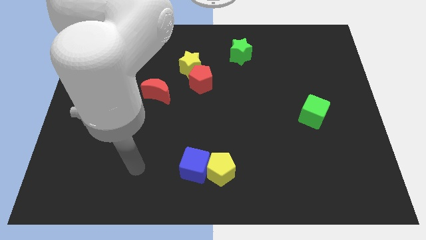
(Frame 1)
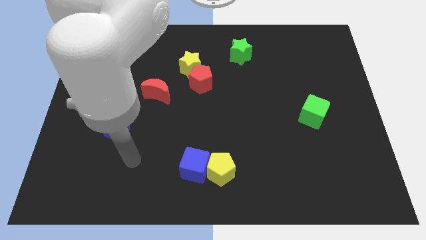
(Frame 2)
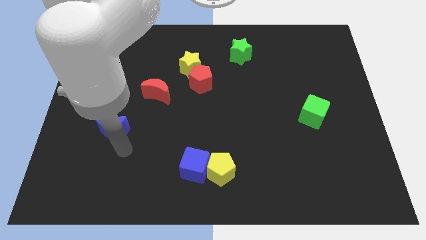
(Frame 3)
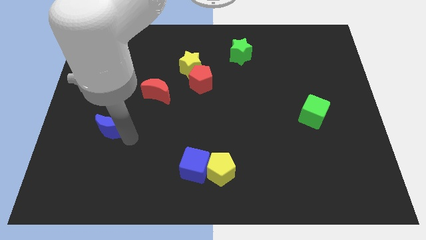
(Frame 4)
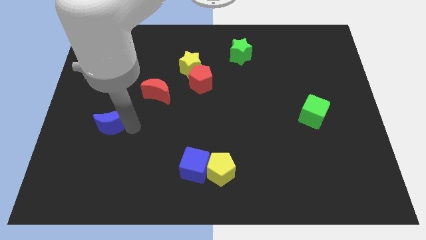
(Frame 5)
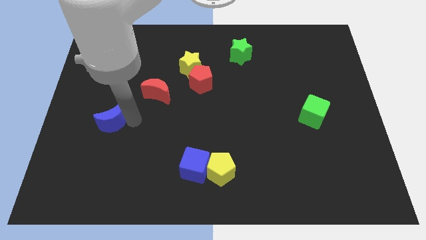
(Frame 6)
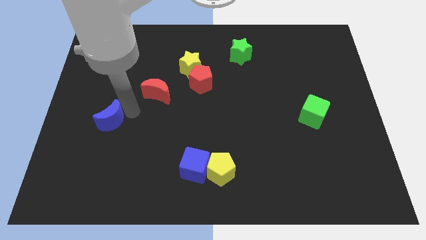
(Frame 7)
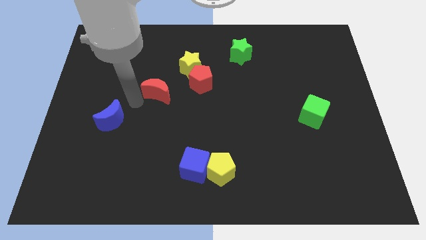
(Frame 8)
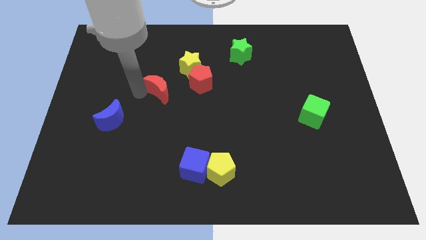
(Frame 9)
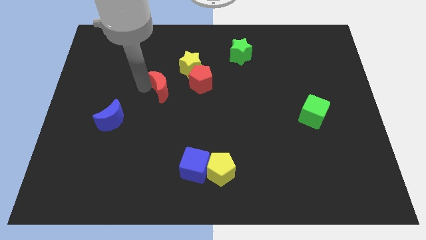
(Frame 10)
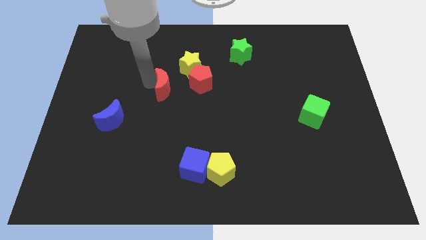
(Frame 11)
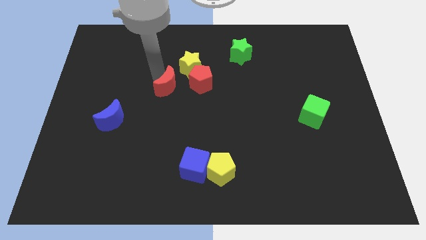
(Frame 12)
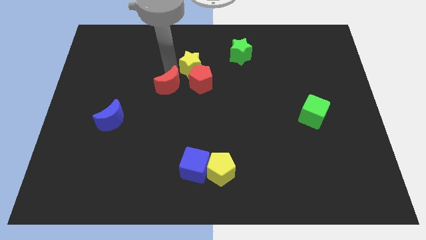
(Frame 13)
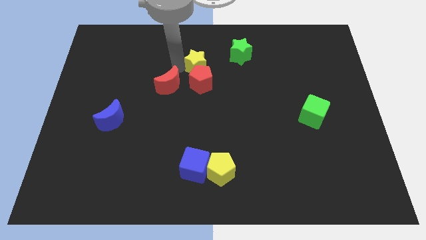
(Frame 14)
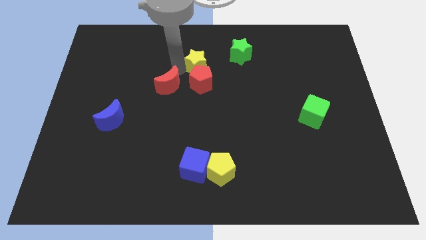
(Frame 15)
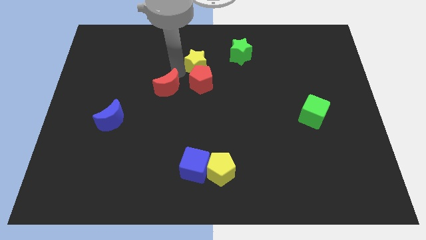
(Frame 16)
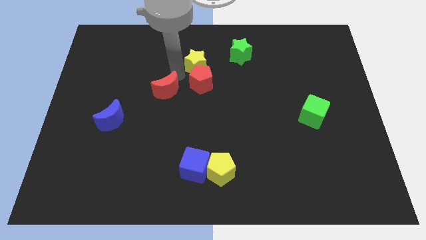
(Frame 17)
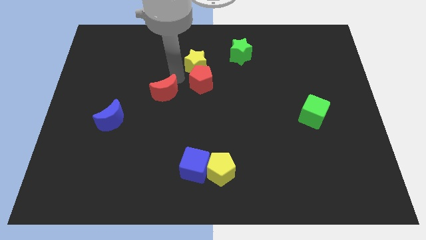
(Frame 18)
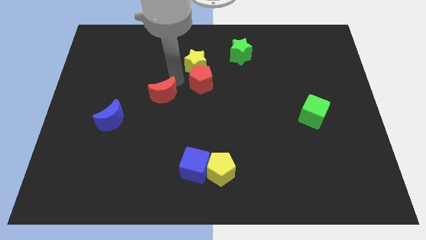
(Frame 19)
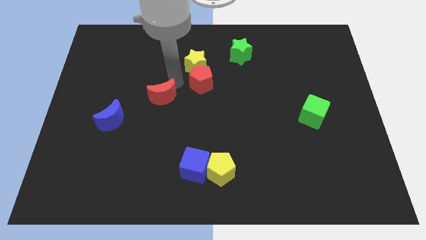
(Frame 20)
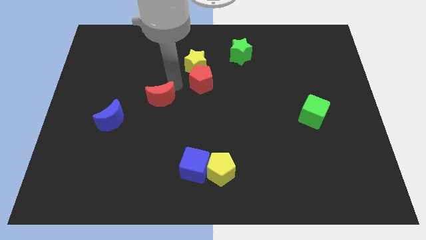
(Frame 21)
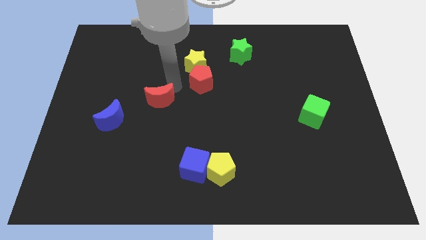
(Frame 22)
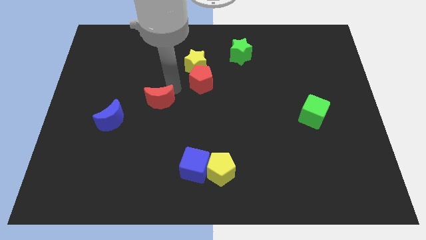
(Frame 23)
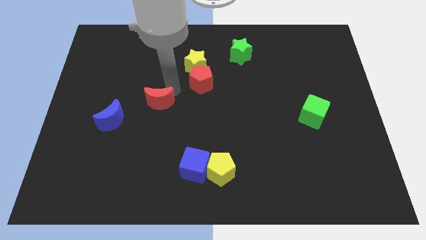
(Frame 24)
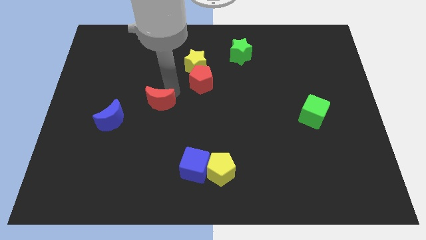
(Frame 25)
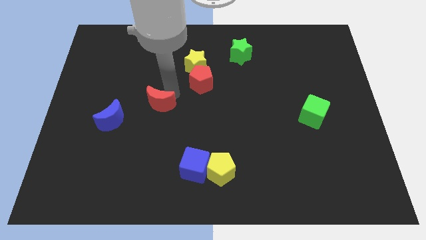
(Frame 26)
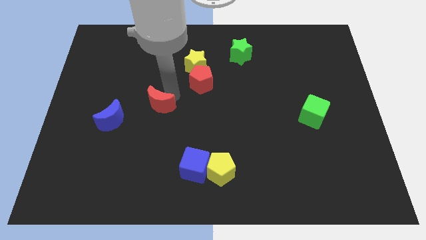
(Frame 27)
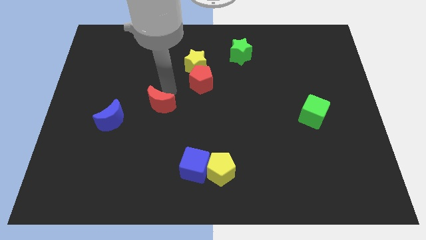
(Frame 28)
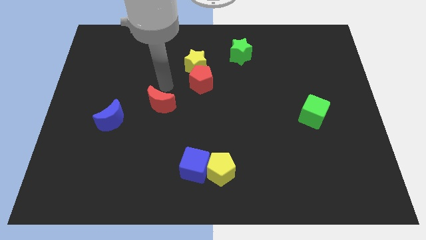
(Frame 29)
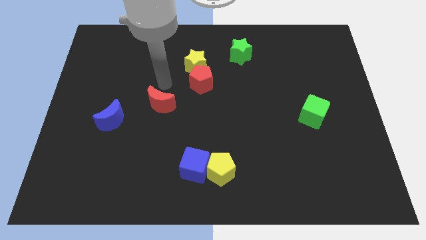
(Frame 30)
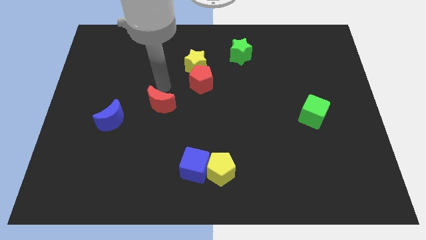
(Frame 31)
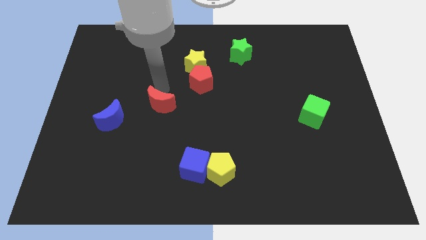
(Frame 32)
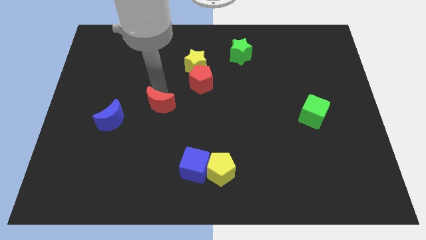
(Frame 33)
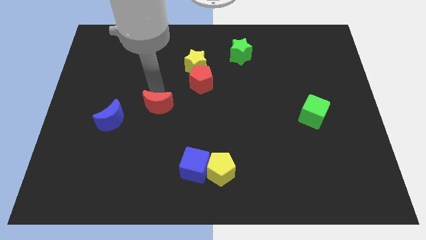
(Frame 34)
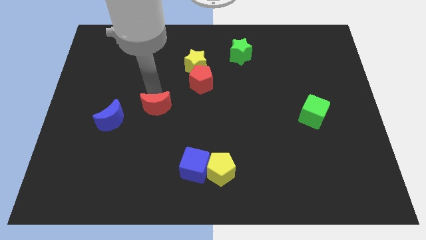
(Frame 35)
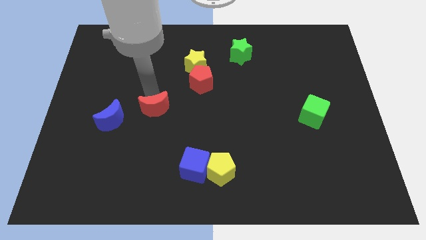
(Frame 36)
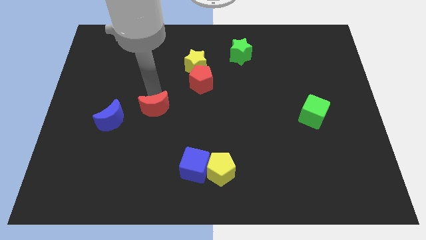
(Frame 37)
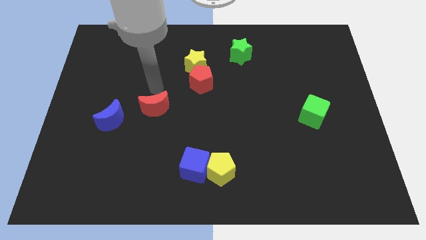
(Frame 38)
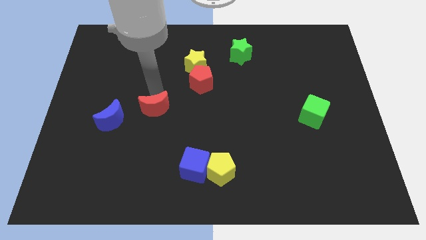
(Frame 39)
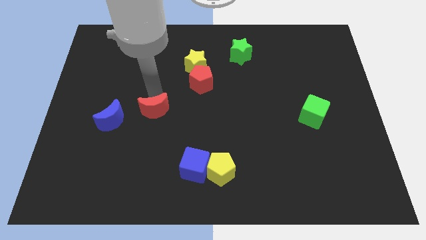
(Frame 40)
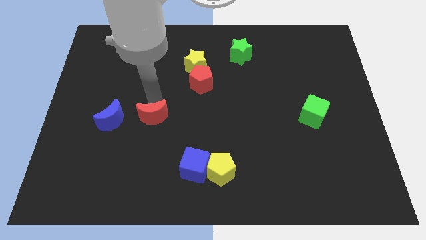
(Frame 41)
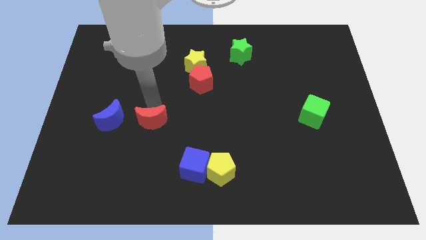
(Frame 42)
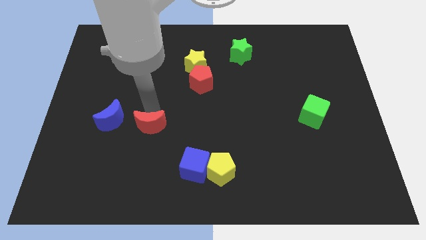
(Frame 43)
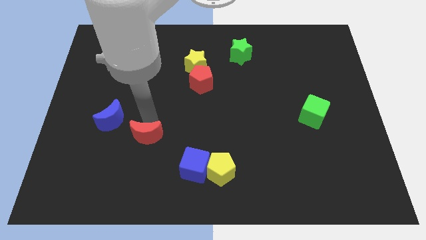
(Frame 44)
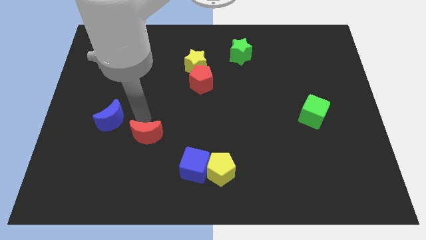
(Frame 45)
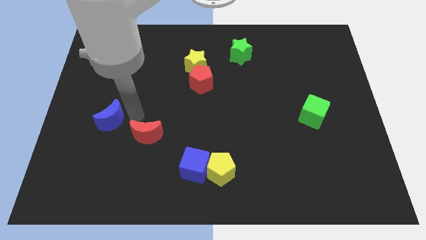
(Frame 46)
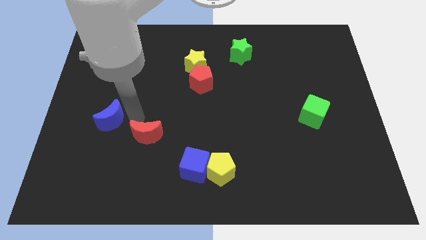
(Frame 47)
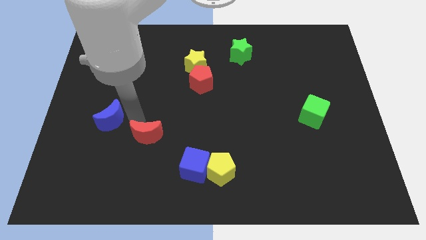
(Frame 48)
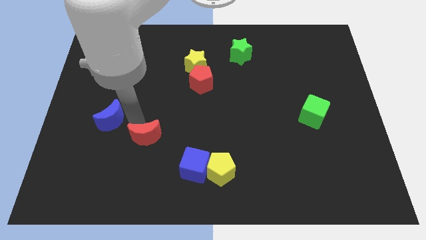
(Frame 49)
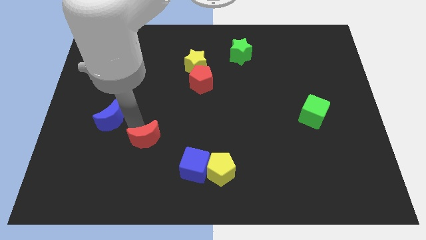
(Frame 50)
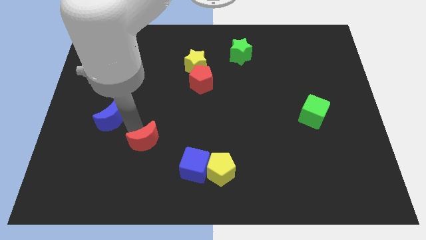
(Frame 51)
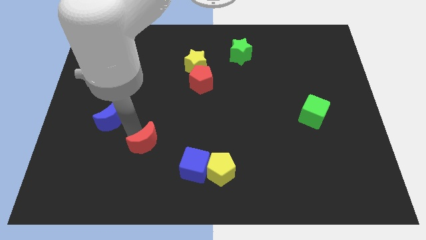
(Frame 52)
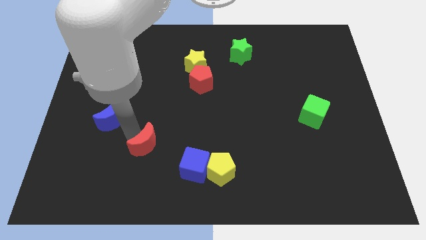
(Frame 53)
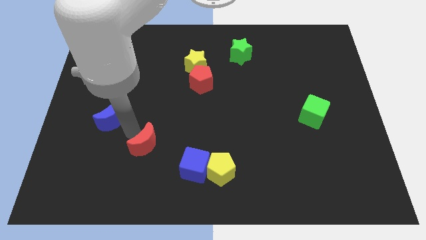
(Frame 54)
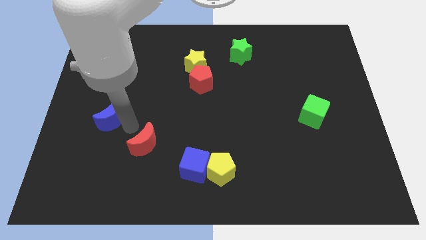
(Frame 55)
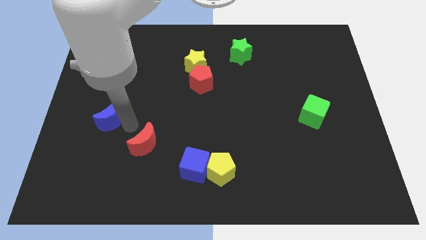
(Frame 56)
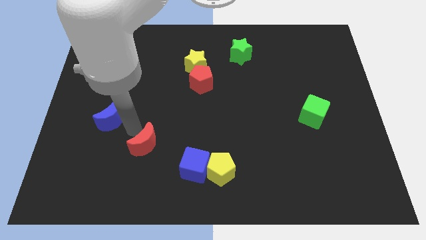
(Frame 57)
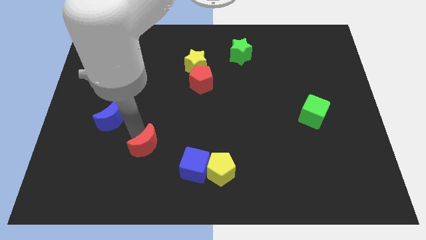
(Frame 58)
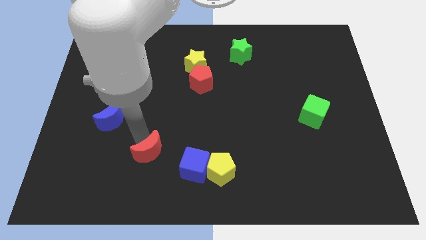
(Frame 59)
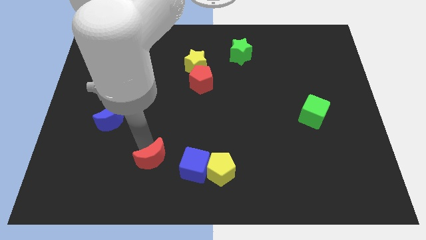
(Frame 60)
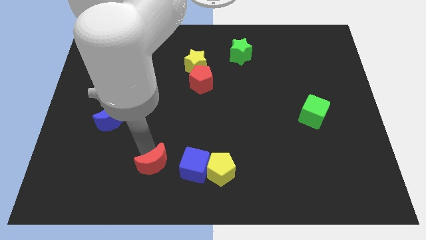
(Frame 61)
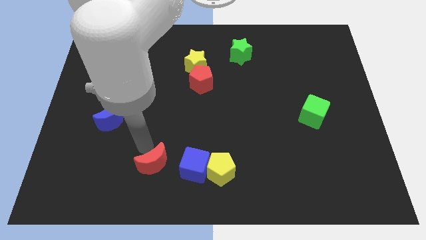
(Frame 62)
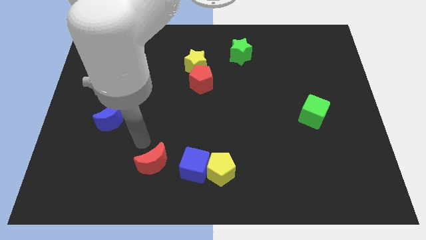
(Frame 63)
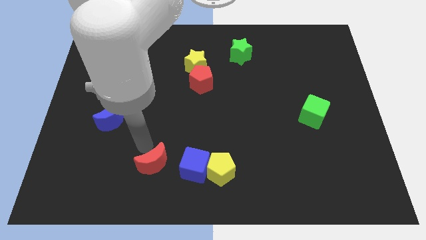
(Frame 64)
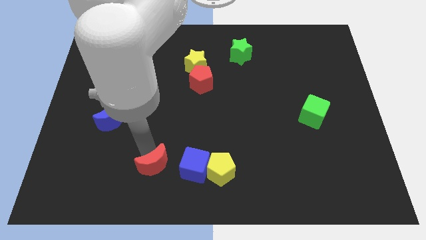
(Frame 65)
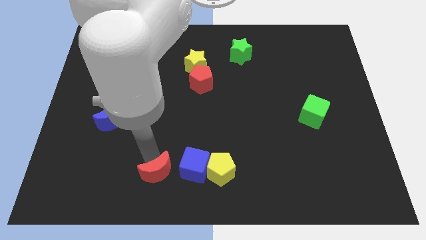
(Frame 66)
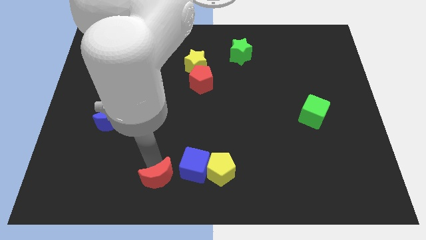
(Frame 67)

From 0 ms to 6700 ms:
move the red moon to the bottom side
